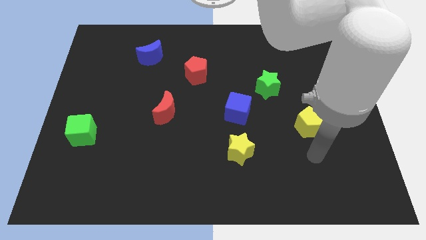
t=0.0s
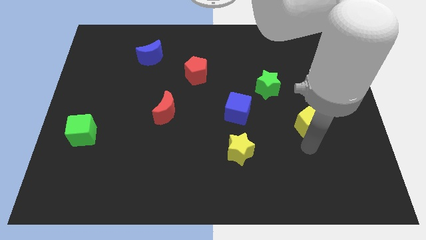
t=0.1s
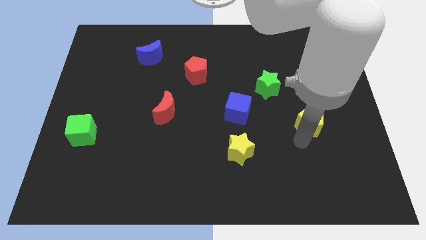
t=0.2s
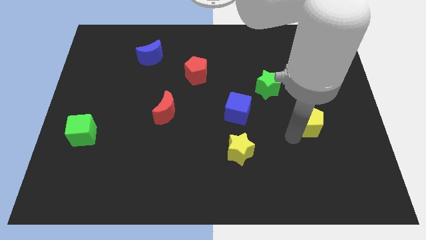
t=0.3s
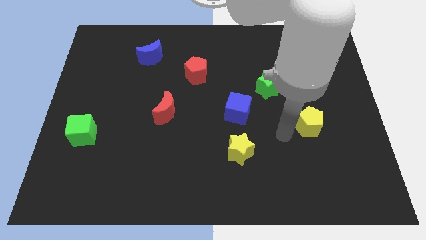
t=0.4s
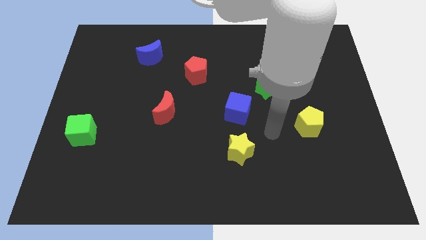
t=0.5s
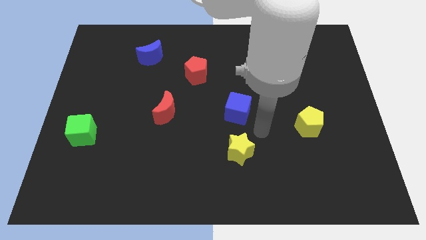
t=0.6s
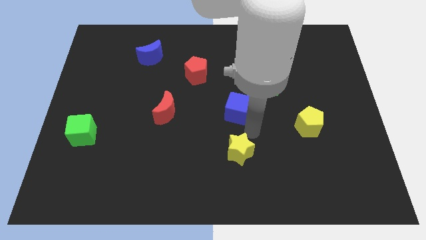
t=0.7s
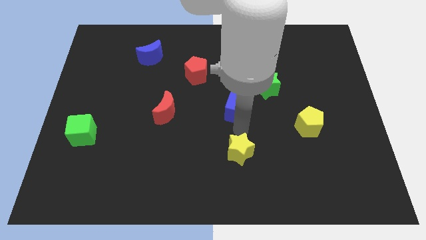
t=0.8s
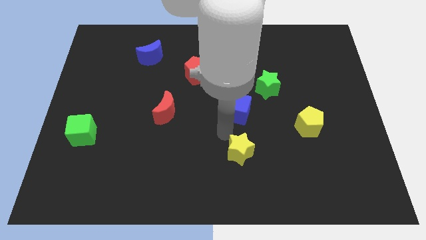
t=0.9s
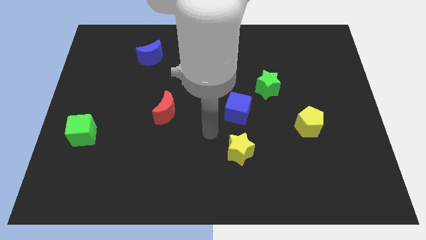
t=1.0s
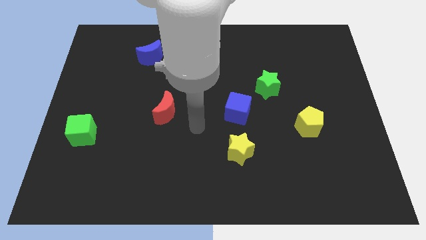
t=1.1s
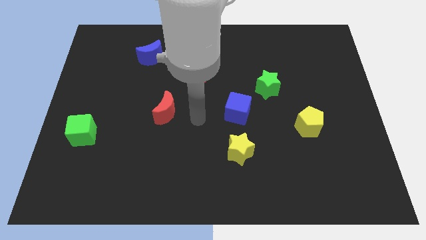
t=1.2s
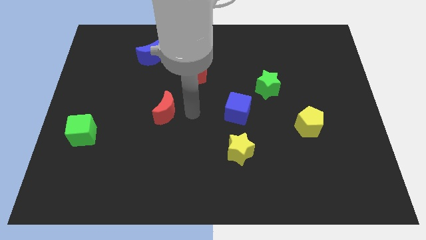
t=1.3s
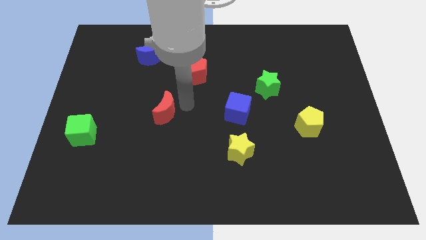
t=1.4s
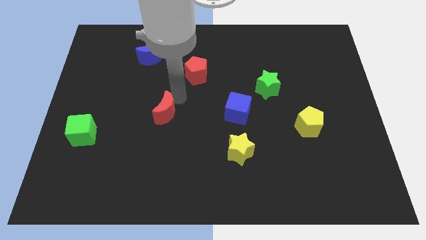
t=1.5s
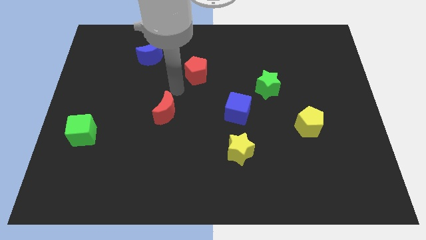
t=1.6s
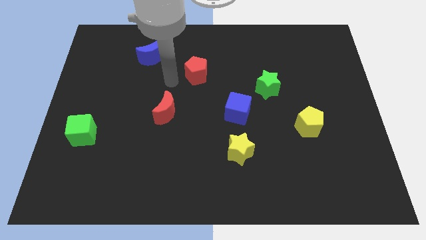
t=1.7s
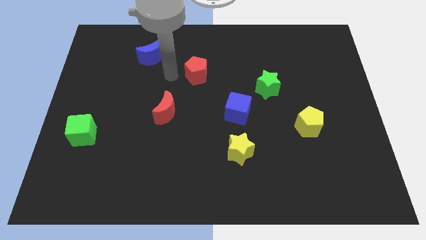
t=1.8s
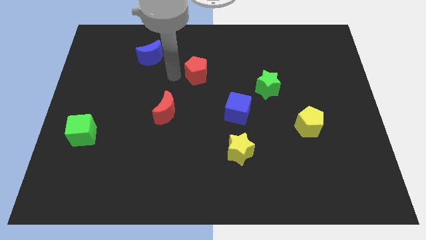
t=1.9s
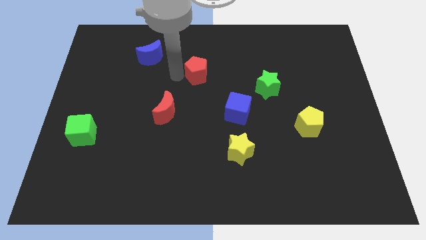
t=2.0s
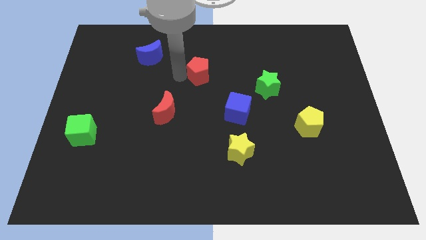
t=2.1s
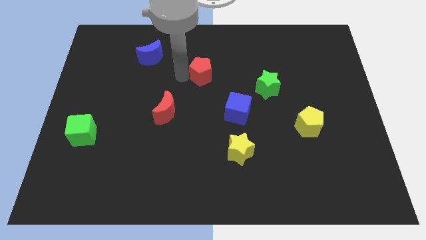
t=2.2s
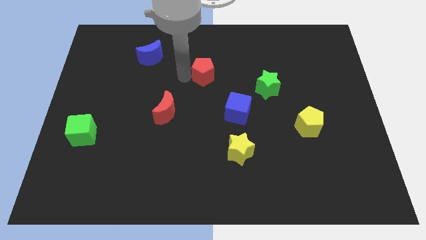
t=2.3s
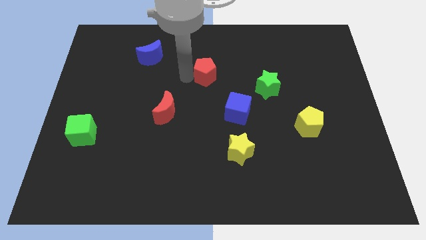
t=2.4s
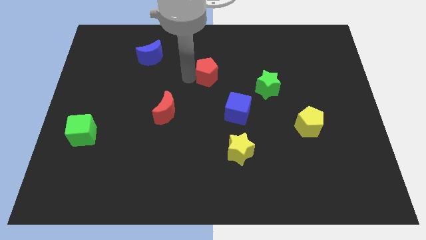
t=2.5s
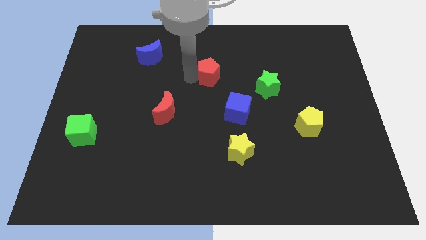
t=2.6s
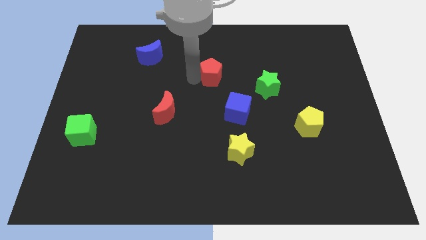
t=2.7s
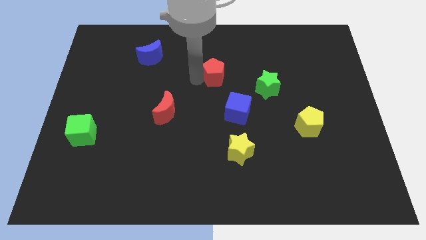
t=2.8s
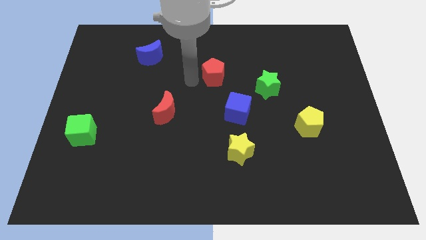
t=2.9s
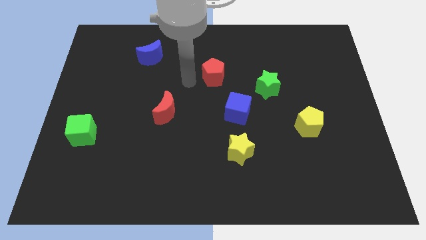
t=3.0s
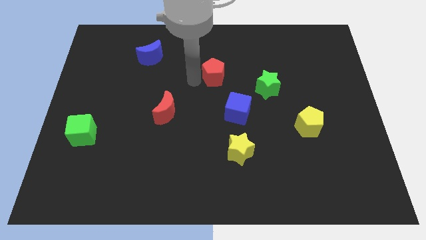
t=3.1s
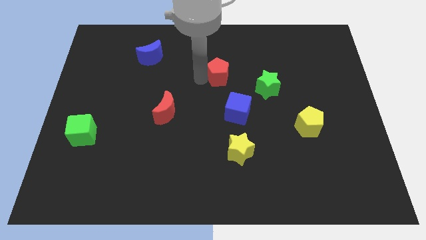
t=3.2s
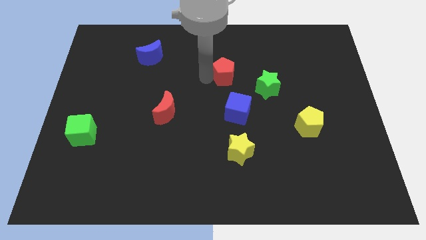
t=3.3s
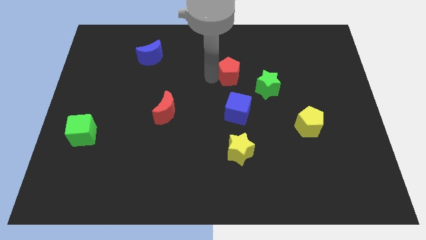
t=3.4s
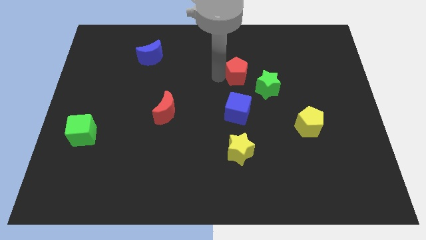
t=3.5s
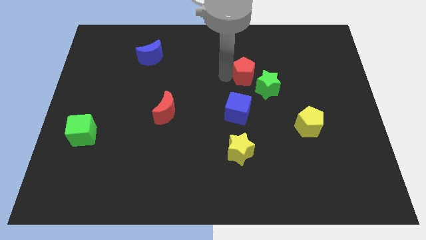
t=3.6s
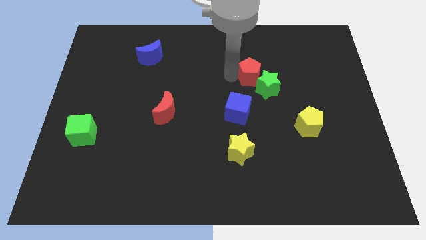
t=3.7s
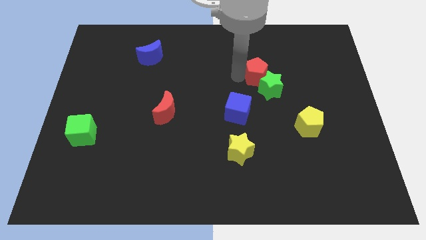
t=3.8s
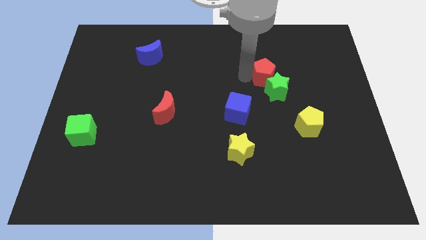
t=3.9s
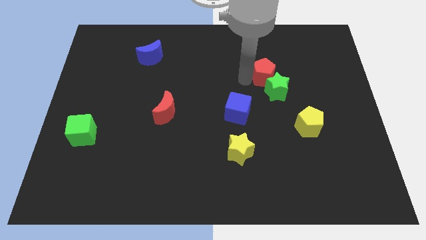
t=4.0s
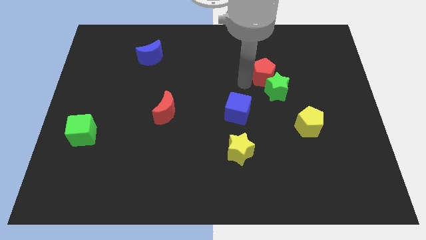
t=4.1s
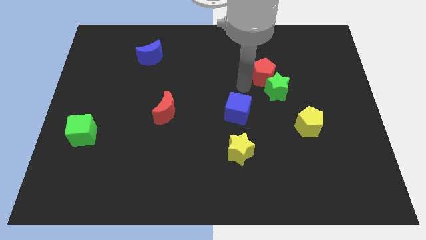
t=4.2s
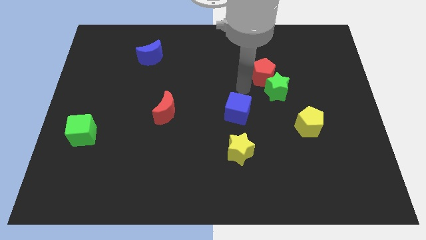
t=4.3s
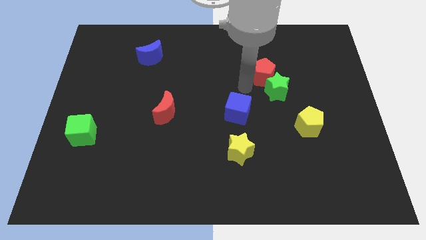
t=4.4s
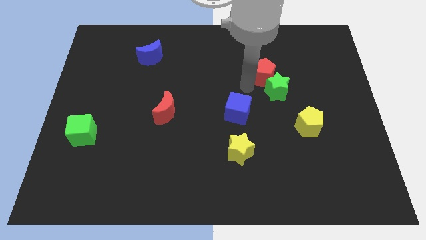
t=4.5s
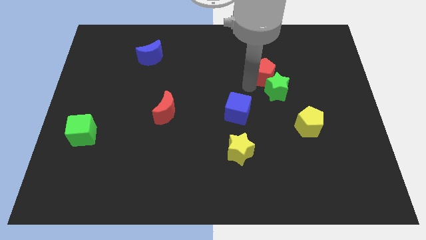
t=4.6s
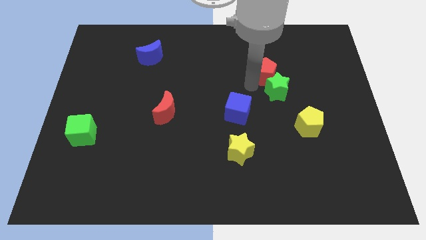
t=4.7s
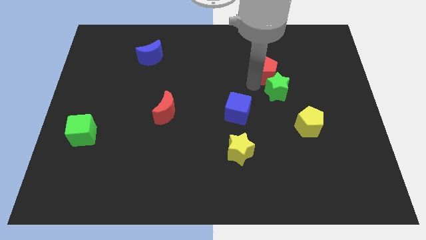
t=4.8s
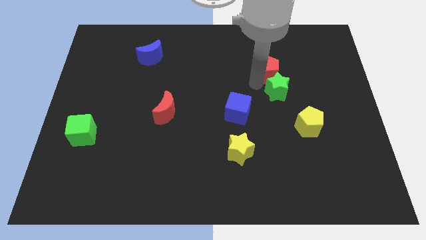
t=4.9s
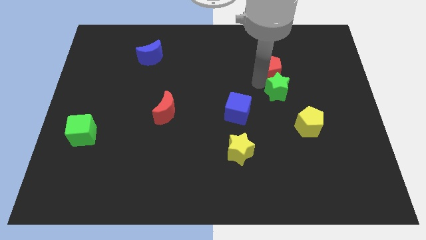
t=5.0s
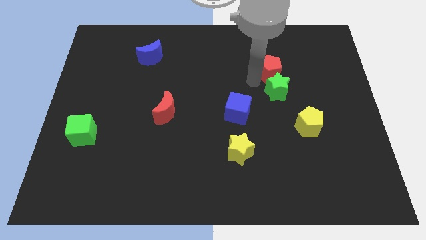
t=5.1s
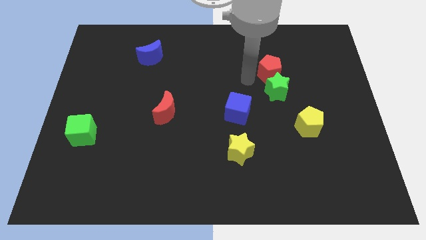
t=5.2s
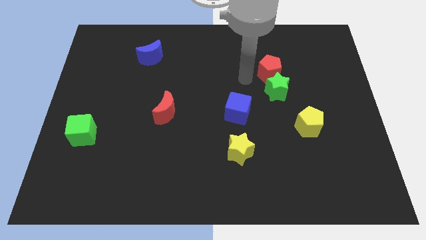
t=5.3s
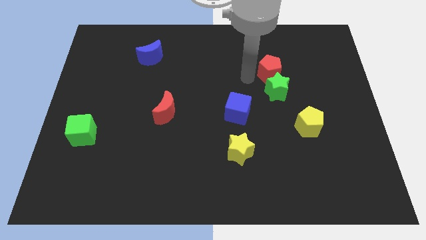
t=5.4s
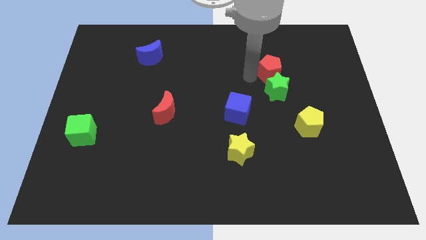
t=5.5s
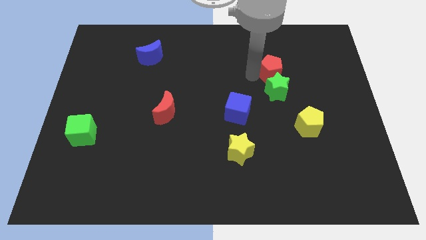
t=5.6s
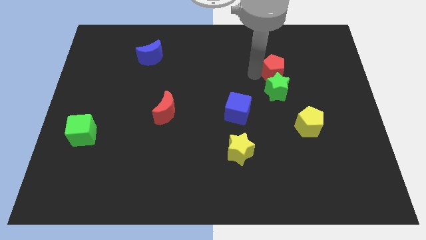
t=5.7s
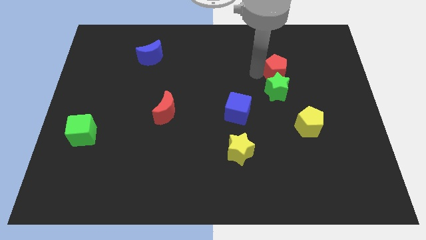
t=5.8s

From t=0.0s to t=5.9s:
push the red pentagon to the right

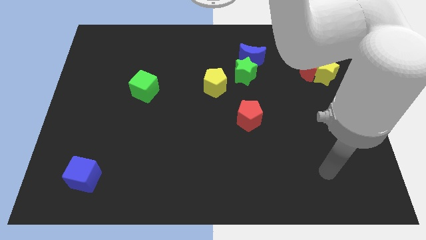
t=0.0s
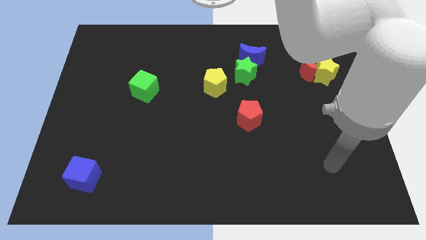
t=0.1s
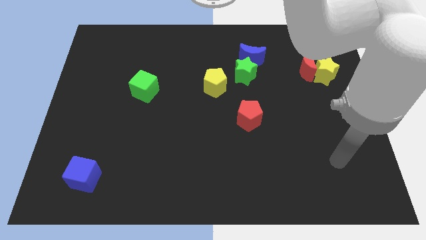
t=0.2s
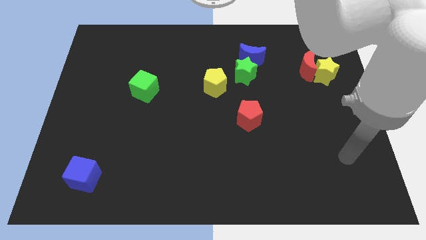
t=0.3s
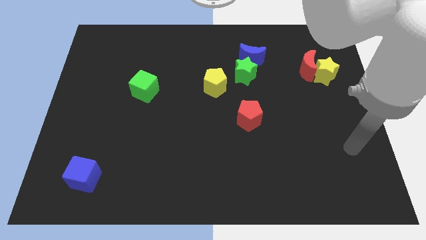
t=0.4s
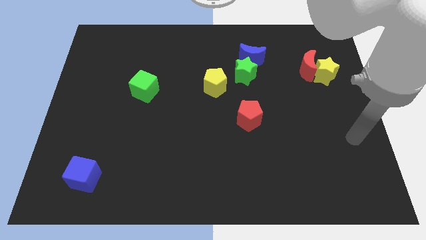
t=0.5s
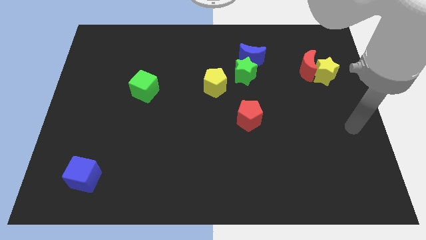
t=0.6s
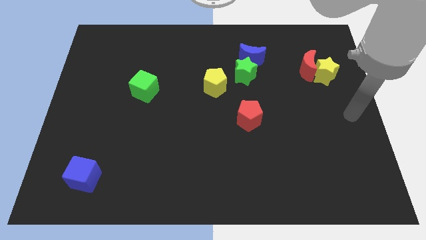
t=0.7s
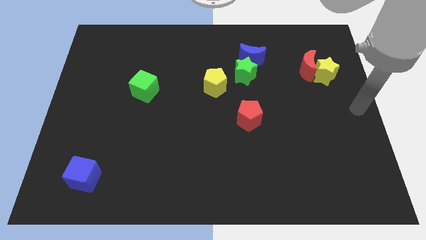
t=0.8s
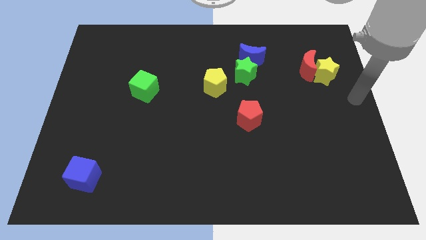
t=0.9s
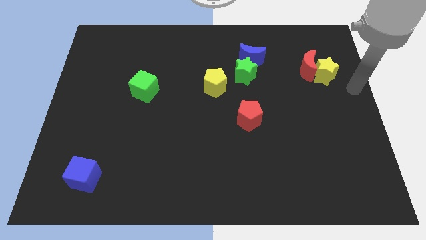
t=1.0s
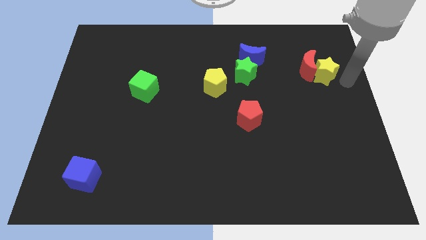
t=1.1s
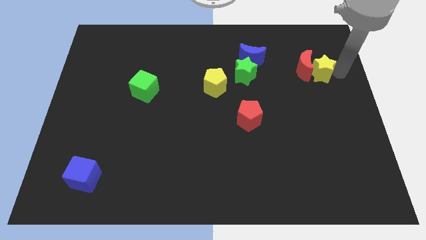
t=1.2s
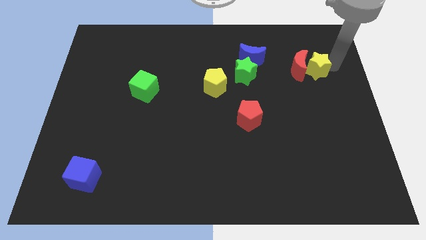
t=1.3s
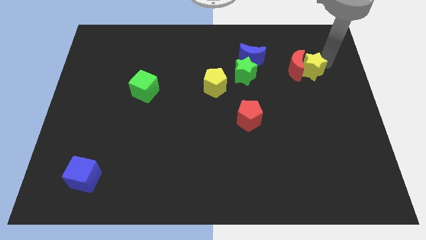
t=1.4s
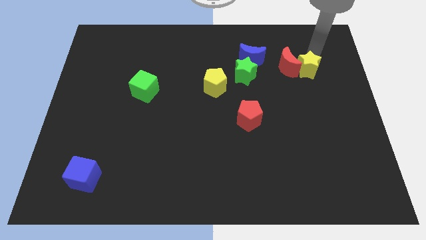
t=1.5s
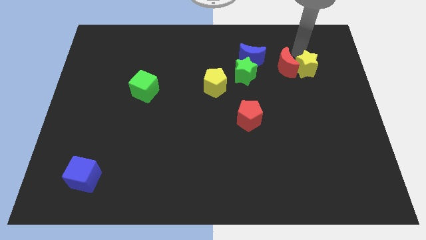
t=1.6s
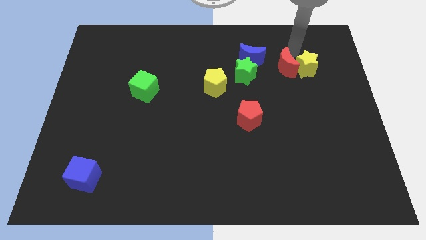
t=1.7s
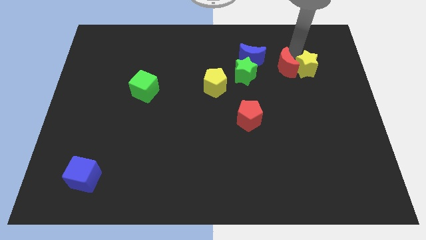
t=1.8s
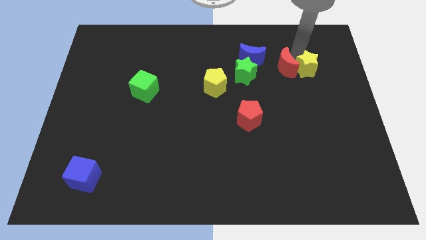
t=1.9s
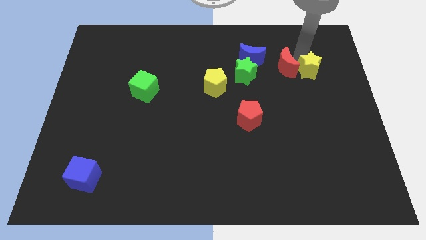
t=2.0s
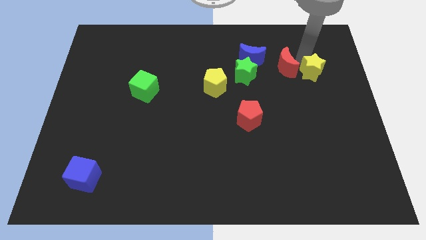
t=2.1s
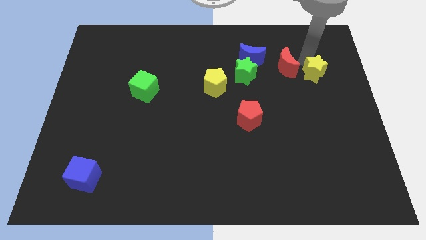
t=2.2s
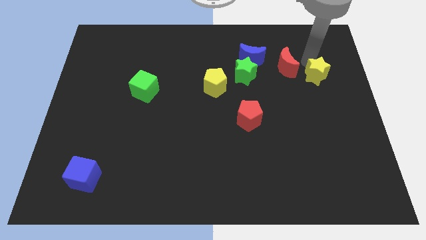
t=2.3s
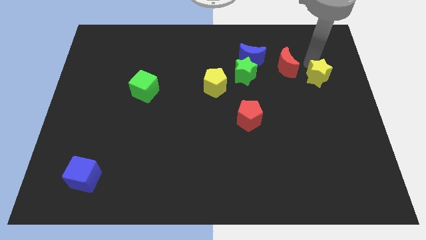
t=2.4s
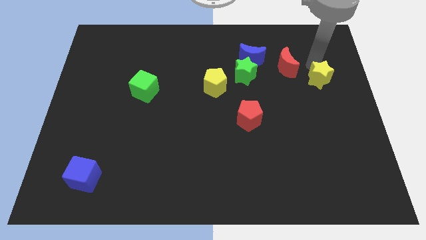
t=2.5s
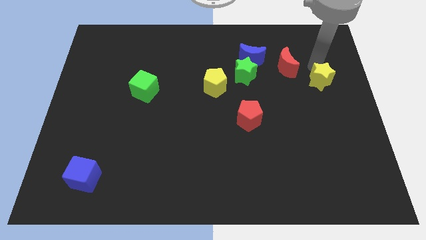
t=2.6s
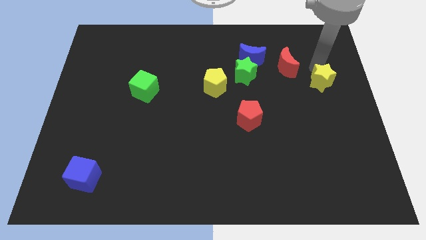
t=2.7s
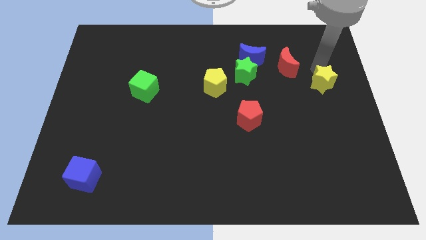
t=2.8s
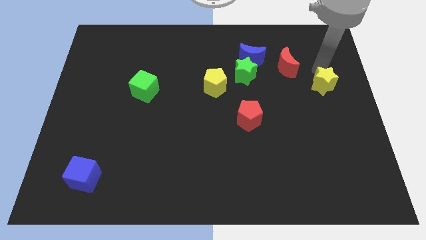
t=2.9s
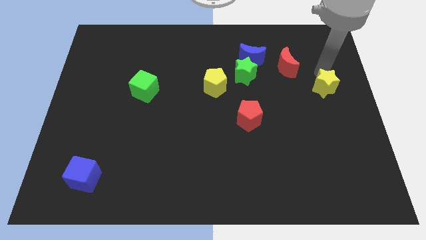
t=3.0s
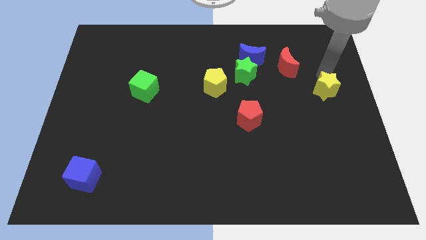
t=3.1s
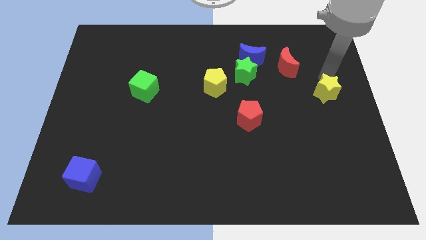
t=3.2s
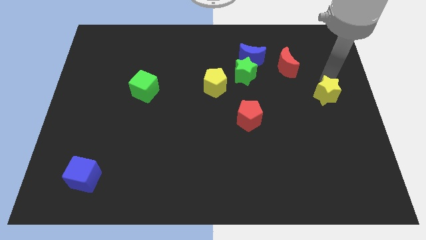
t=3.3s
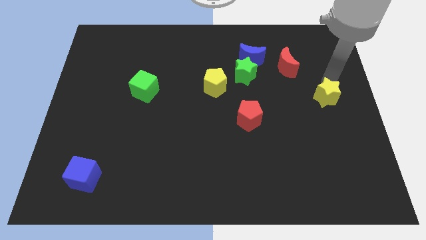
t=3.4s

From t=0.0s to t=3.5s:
move the yellow star a little downwards
